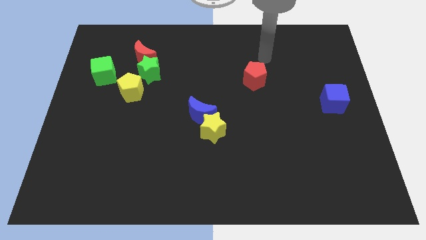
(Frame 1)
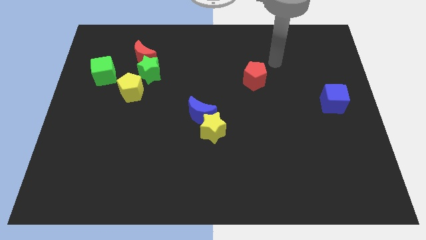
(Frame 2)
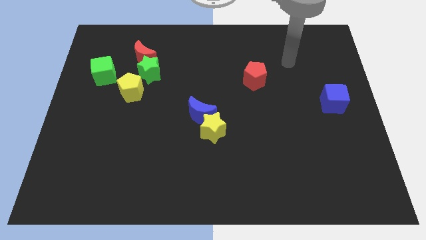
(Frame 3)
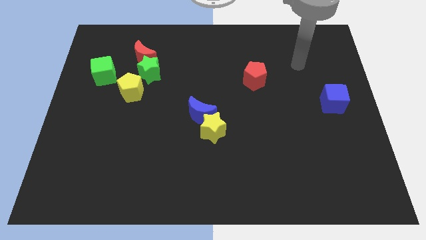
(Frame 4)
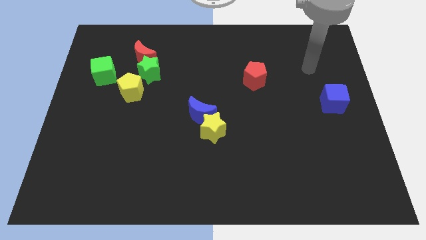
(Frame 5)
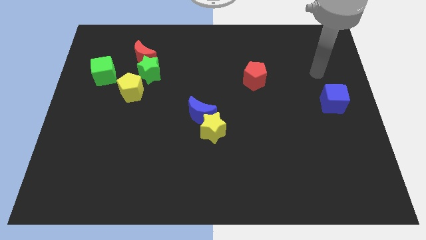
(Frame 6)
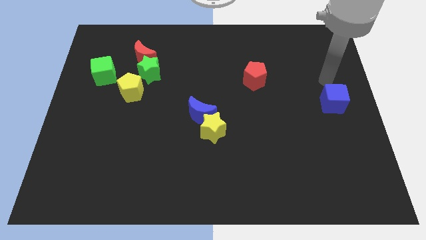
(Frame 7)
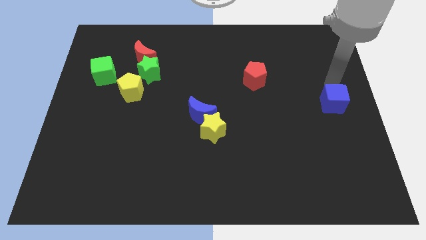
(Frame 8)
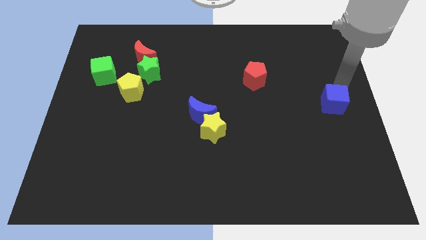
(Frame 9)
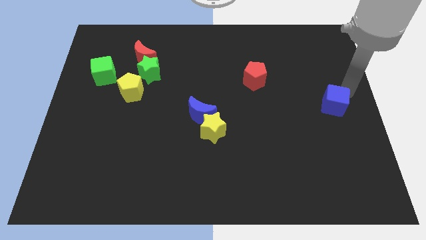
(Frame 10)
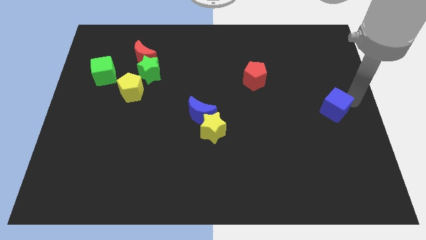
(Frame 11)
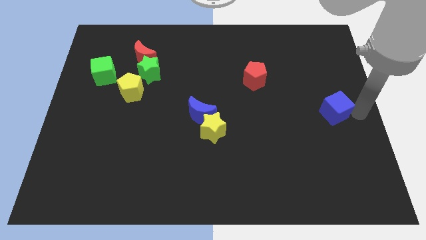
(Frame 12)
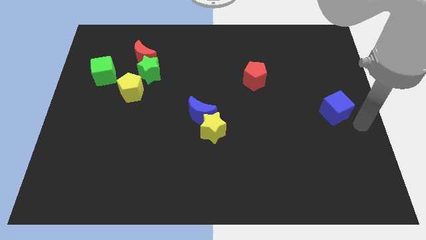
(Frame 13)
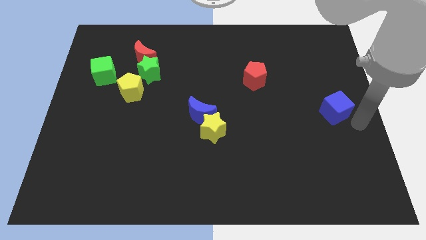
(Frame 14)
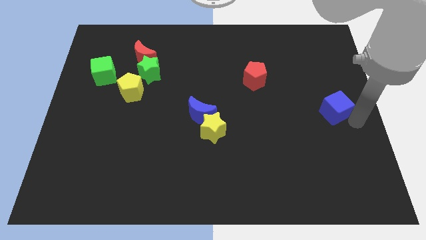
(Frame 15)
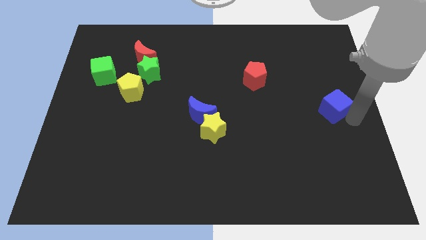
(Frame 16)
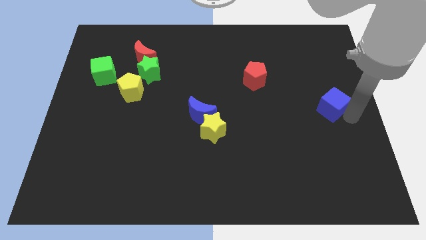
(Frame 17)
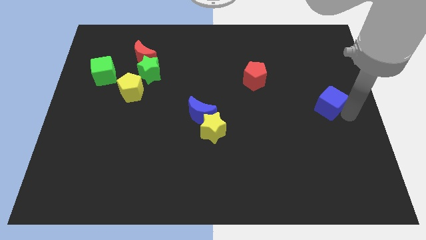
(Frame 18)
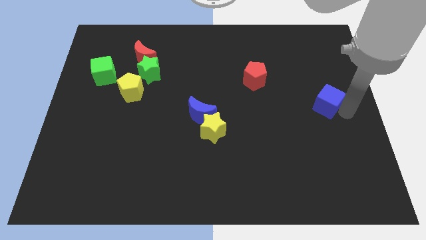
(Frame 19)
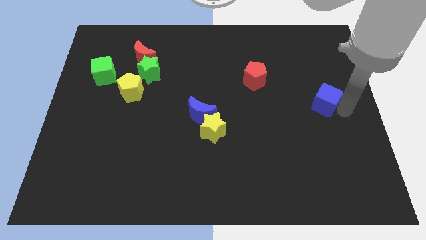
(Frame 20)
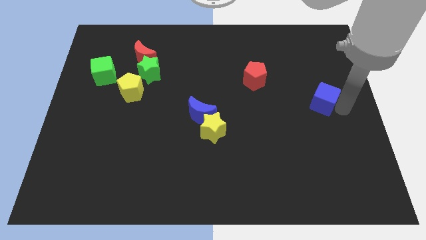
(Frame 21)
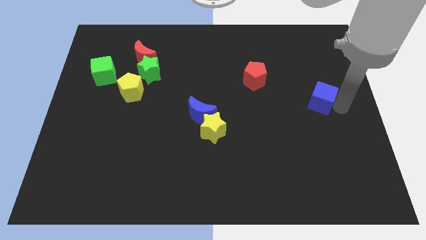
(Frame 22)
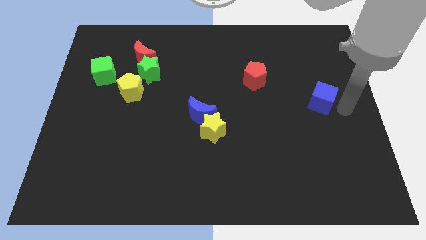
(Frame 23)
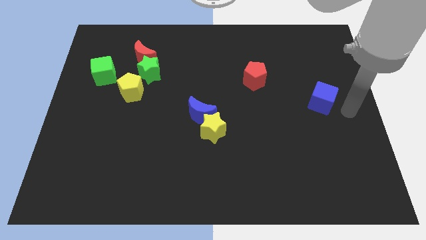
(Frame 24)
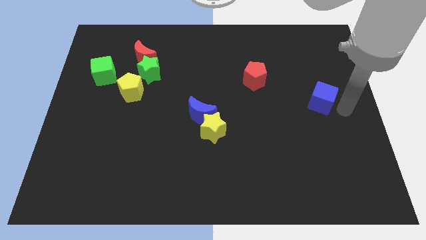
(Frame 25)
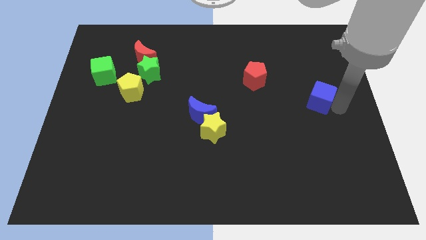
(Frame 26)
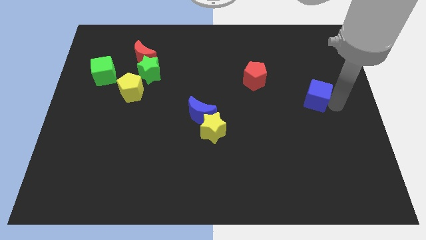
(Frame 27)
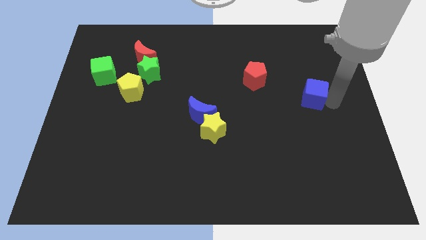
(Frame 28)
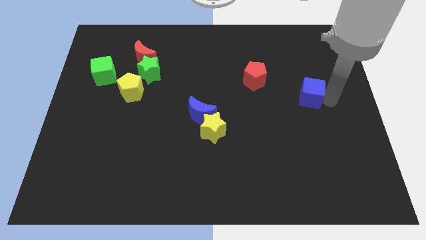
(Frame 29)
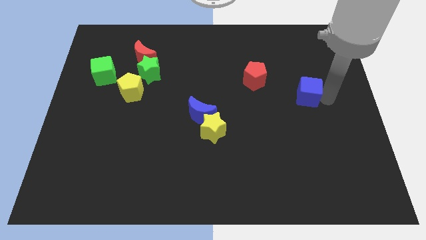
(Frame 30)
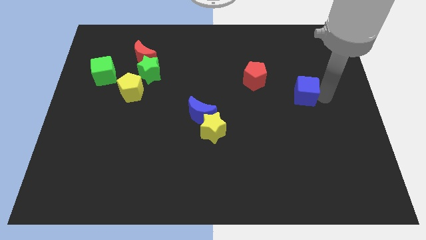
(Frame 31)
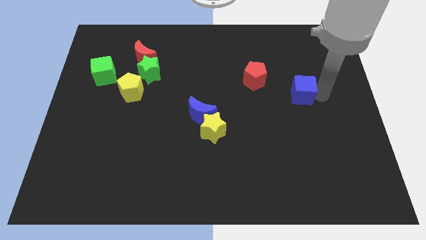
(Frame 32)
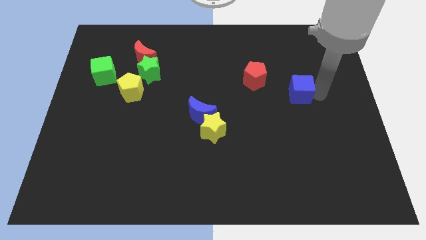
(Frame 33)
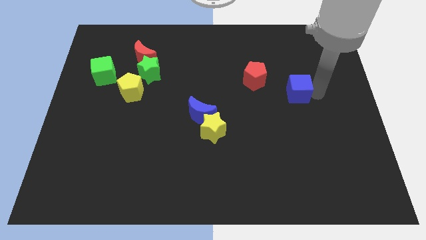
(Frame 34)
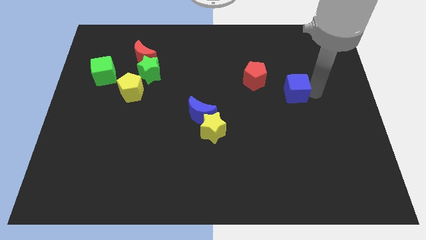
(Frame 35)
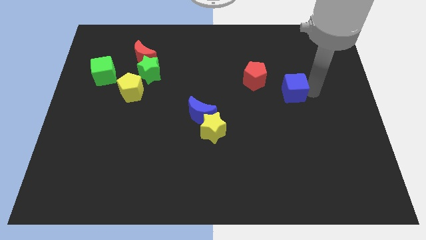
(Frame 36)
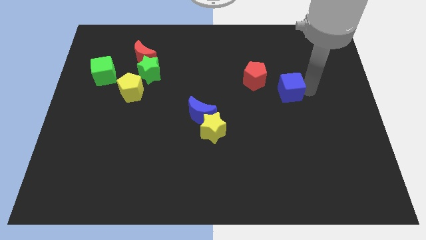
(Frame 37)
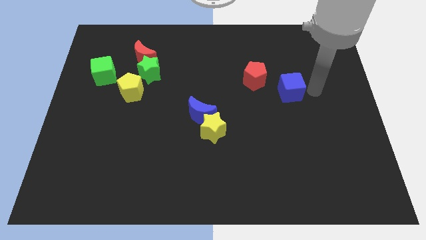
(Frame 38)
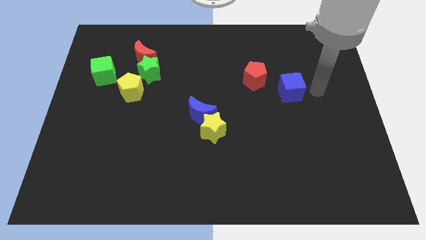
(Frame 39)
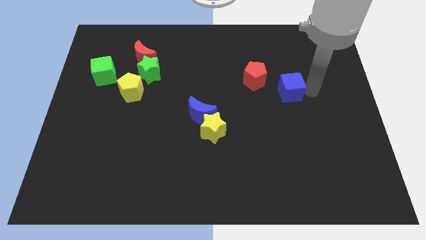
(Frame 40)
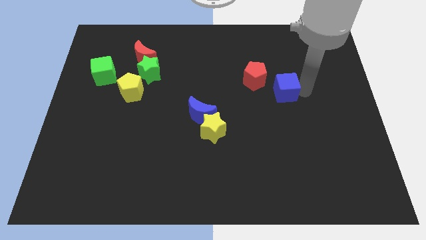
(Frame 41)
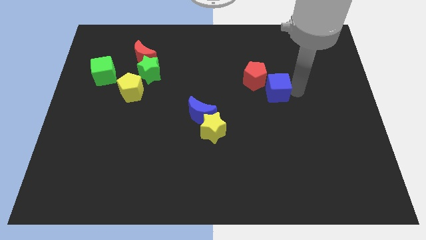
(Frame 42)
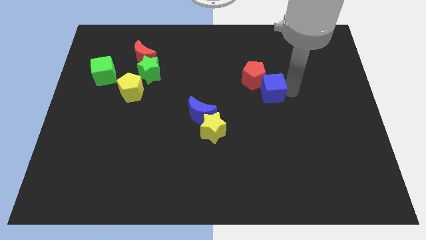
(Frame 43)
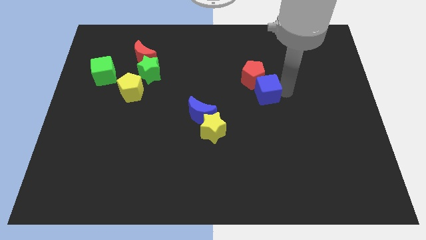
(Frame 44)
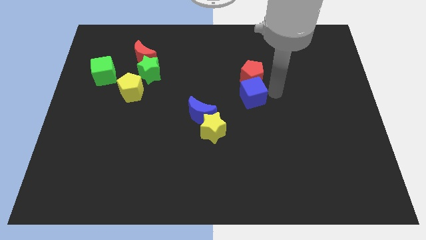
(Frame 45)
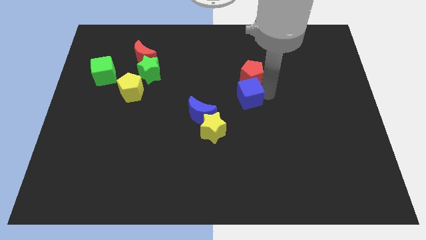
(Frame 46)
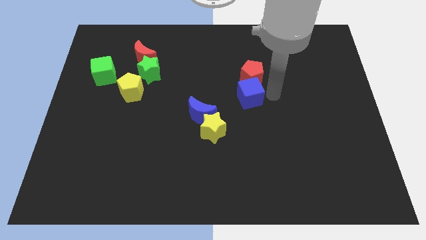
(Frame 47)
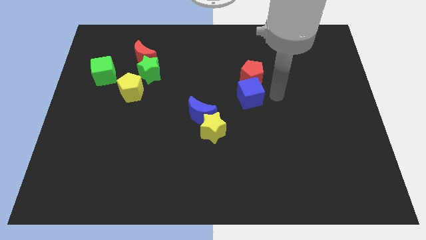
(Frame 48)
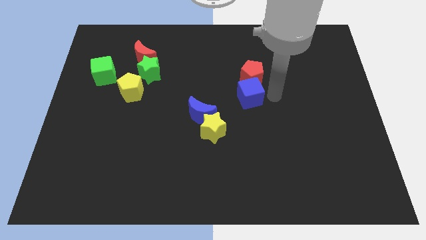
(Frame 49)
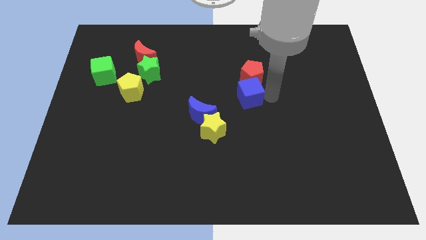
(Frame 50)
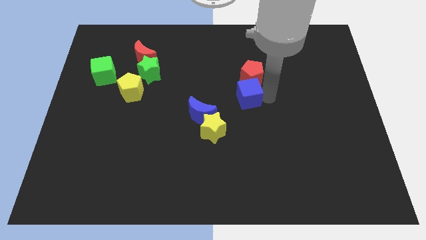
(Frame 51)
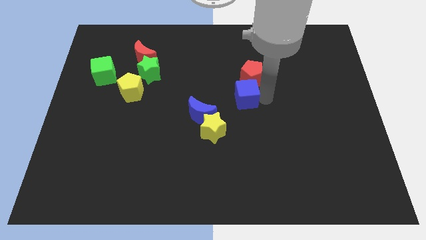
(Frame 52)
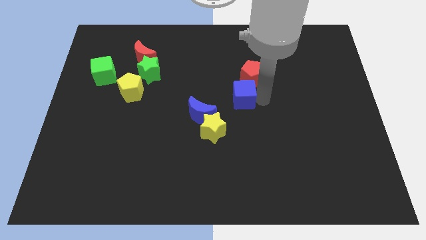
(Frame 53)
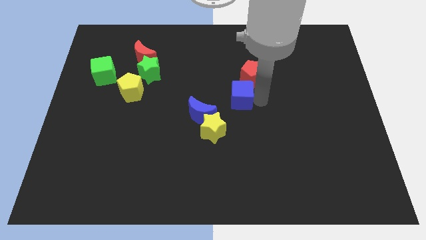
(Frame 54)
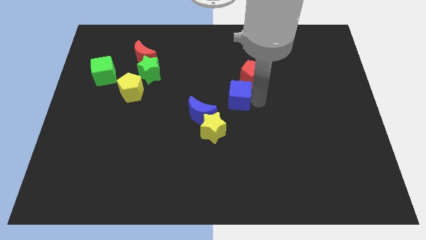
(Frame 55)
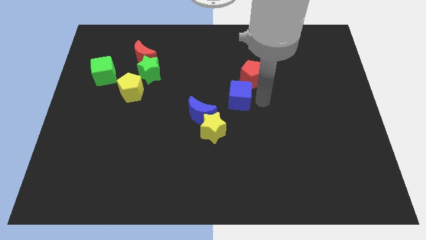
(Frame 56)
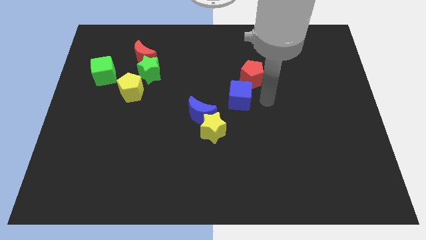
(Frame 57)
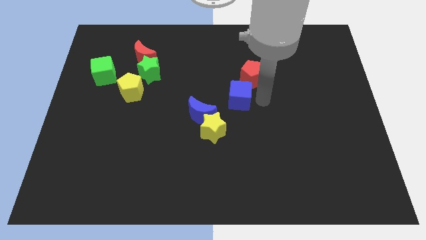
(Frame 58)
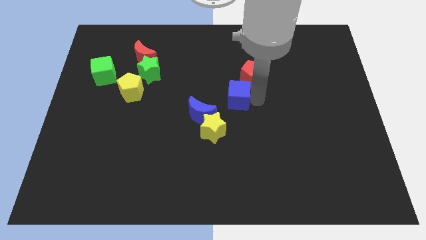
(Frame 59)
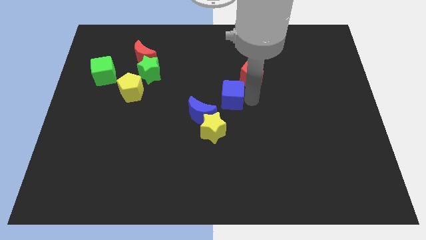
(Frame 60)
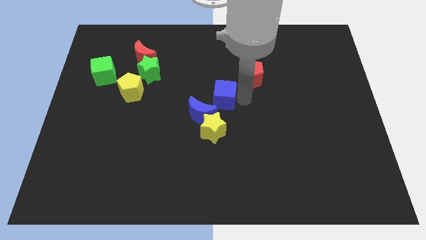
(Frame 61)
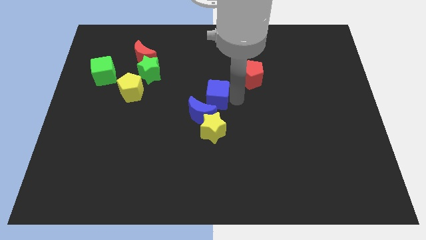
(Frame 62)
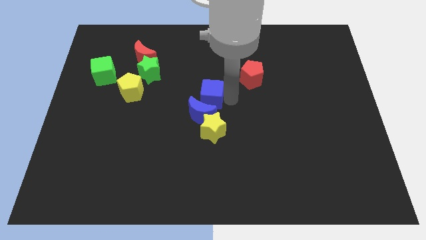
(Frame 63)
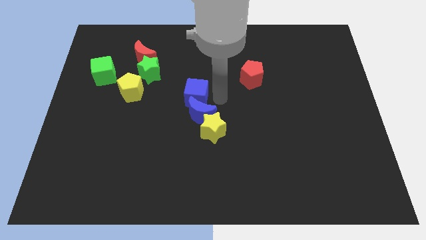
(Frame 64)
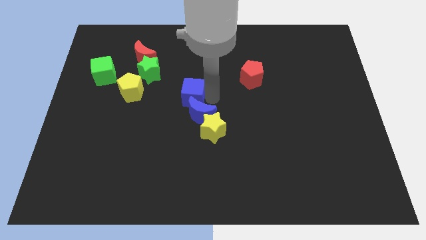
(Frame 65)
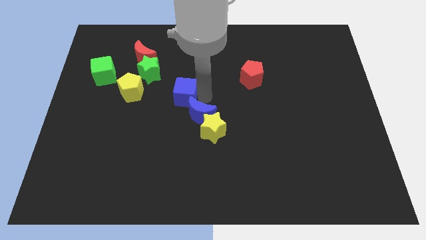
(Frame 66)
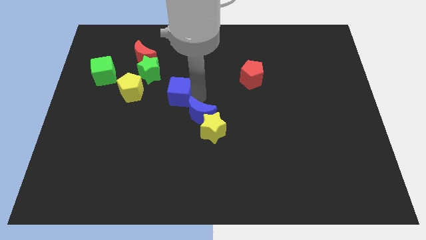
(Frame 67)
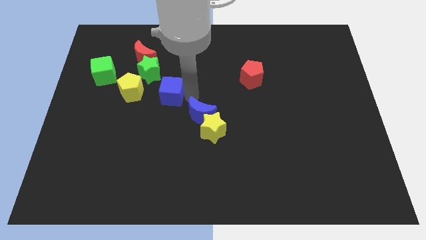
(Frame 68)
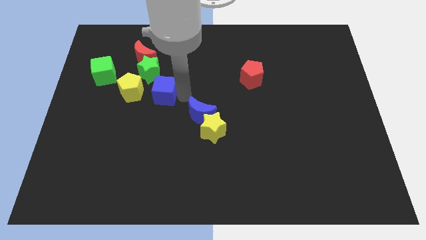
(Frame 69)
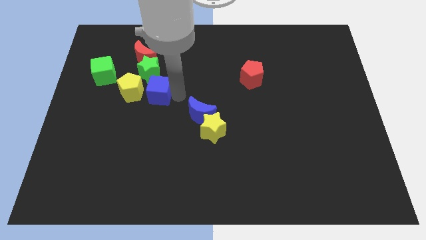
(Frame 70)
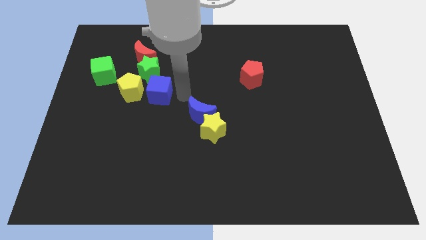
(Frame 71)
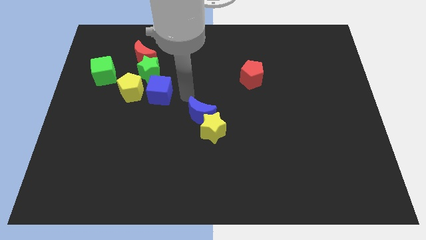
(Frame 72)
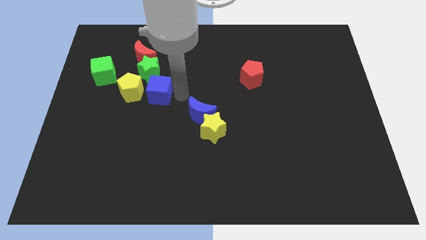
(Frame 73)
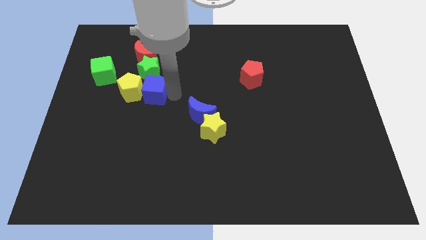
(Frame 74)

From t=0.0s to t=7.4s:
move the blue cube towards the yellow pentagon

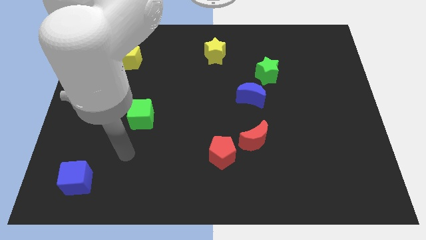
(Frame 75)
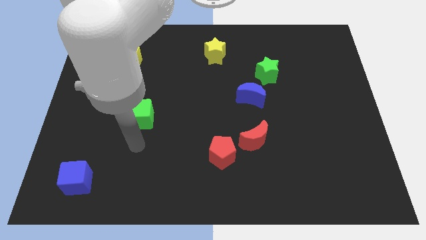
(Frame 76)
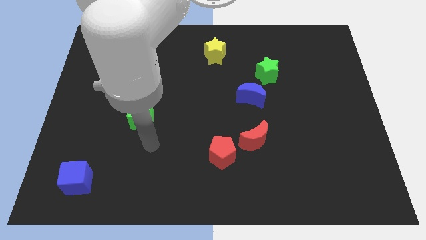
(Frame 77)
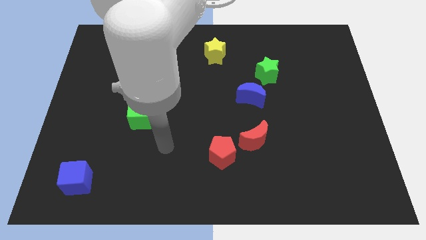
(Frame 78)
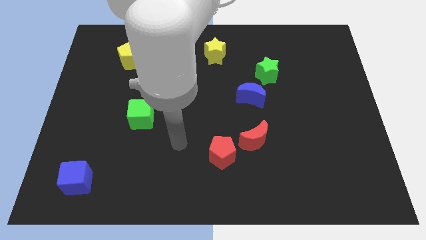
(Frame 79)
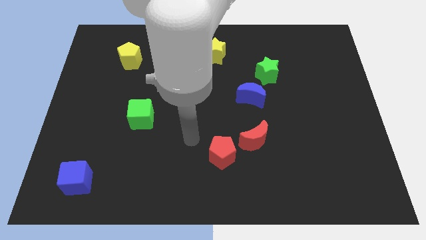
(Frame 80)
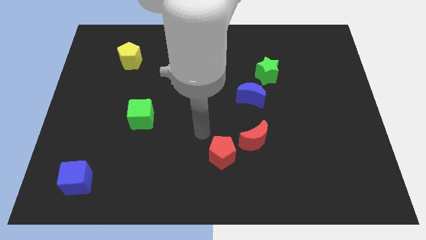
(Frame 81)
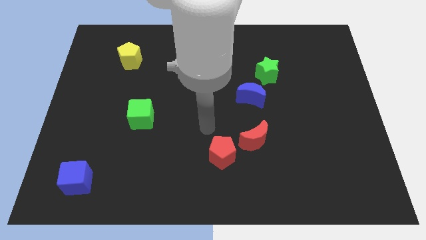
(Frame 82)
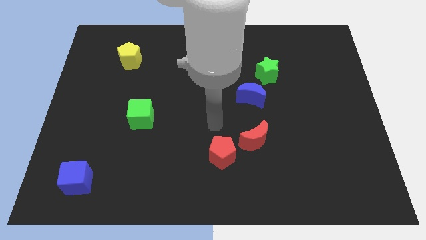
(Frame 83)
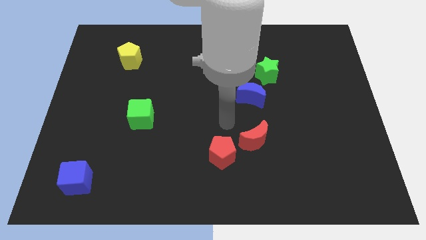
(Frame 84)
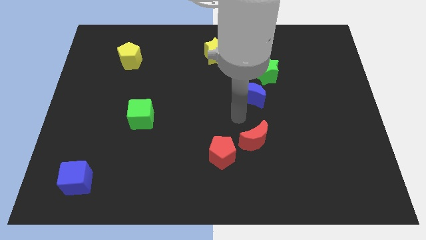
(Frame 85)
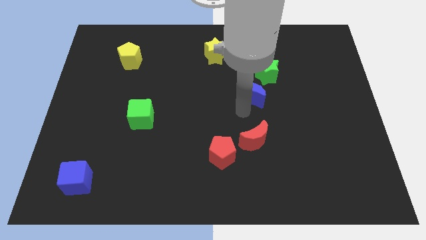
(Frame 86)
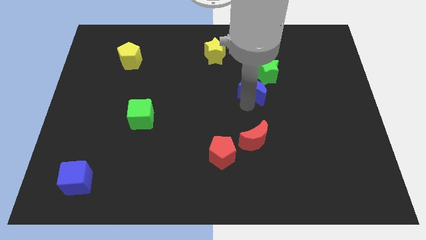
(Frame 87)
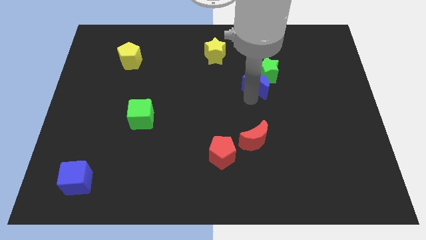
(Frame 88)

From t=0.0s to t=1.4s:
move the blue moon towards the green star
